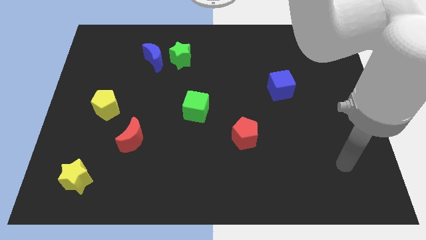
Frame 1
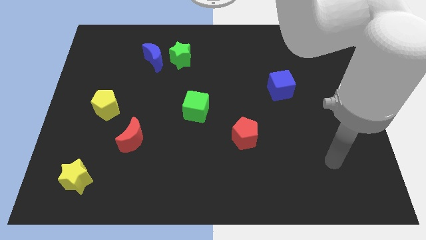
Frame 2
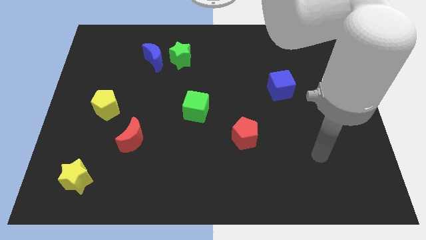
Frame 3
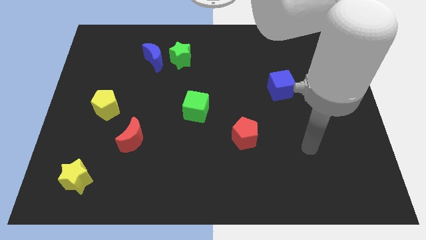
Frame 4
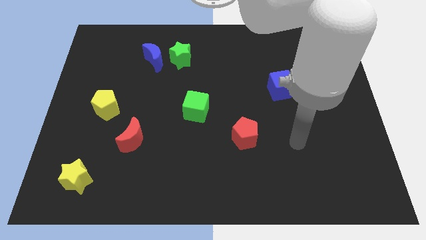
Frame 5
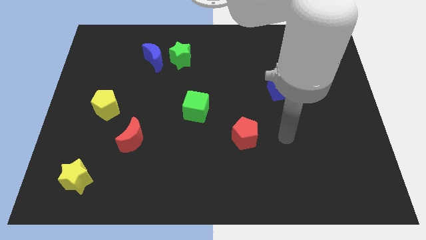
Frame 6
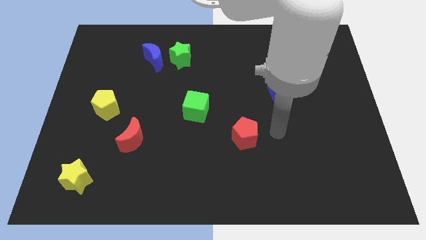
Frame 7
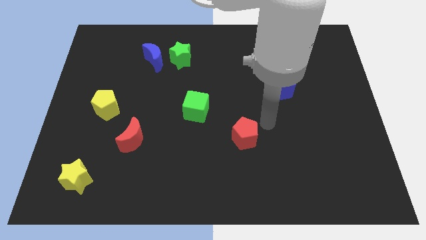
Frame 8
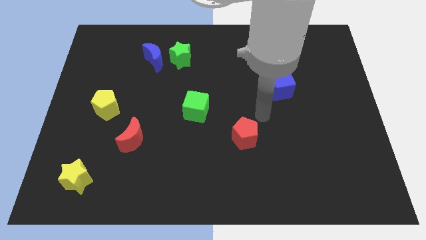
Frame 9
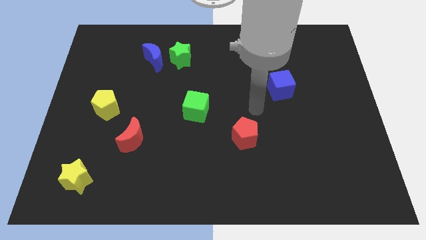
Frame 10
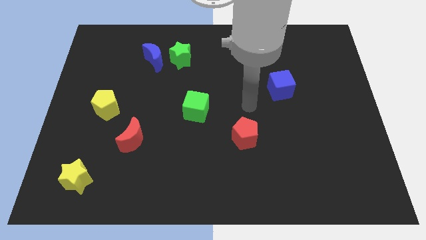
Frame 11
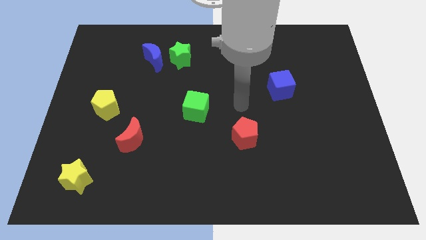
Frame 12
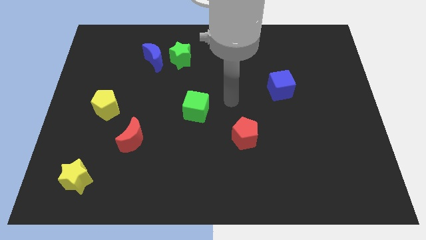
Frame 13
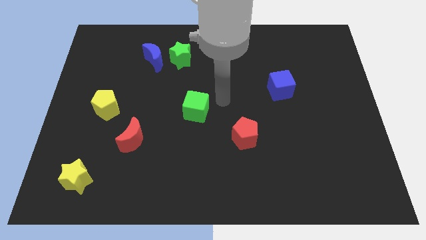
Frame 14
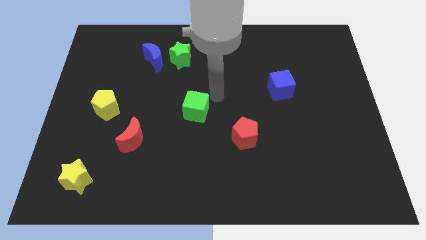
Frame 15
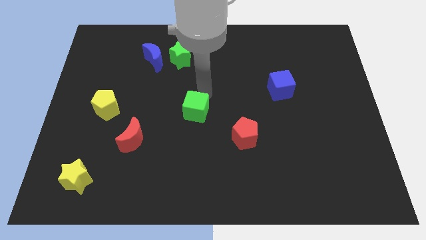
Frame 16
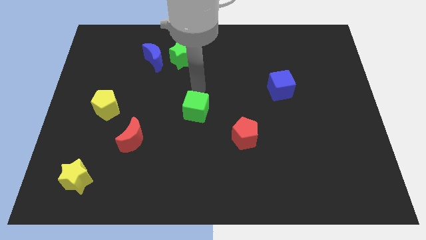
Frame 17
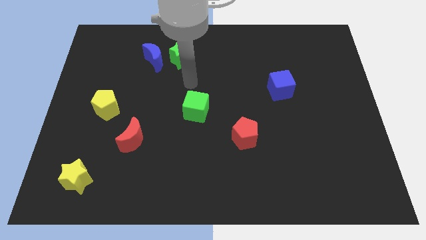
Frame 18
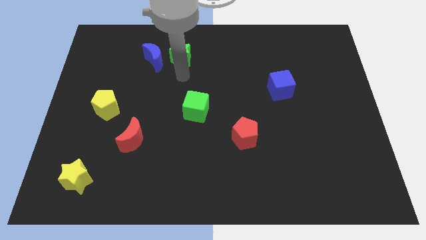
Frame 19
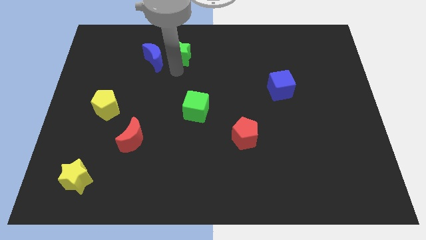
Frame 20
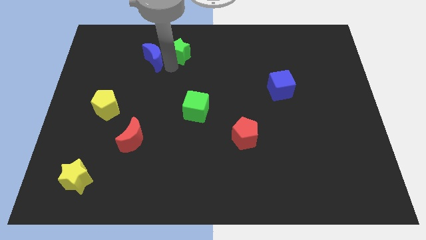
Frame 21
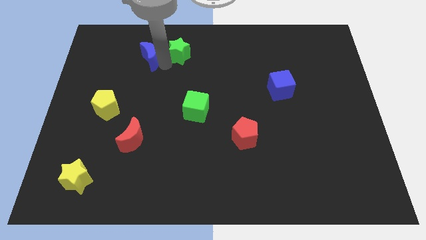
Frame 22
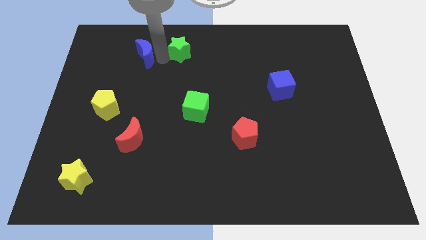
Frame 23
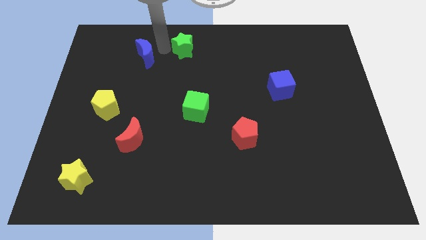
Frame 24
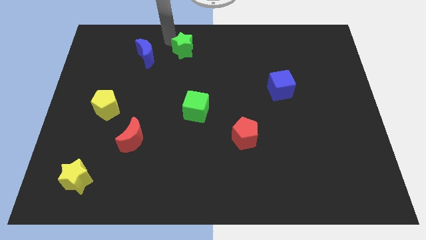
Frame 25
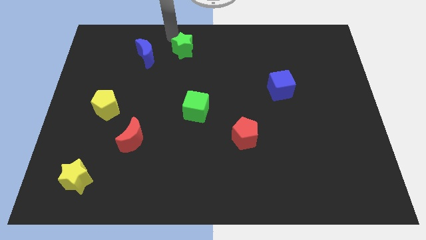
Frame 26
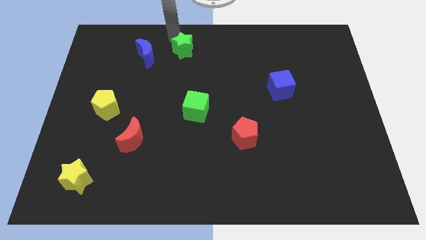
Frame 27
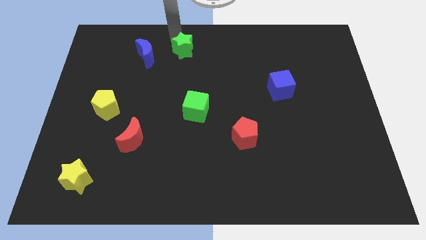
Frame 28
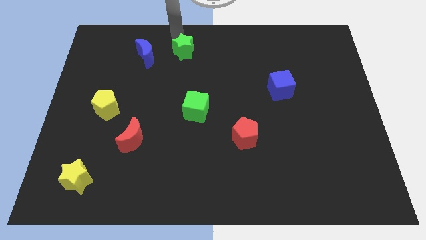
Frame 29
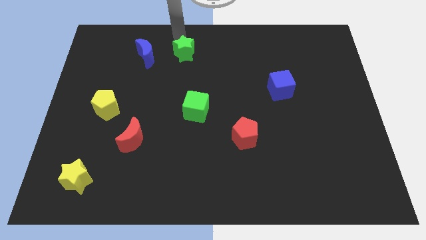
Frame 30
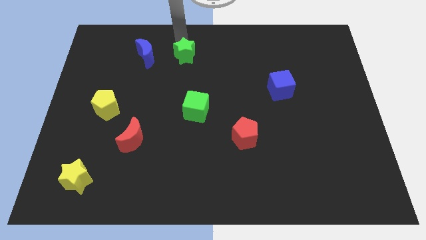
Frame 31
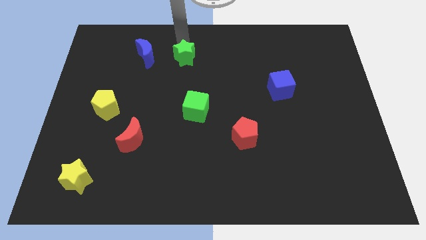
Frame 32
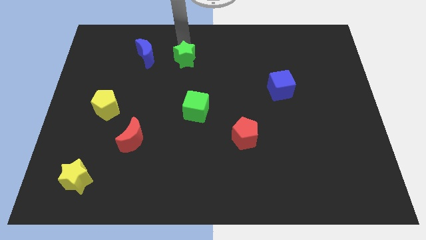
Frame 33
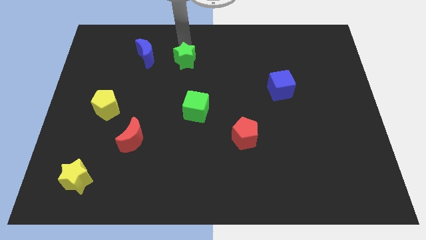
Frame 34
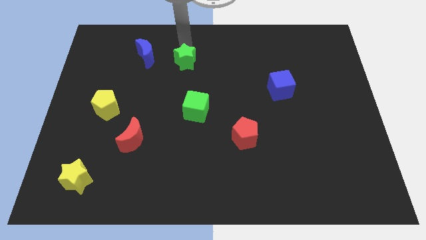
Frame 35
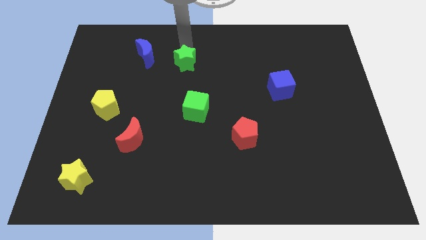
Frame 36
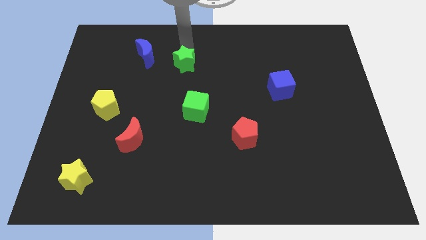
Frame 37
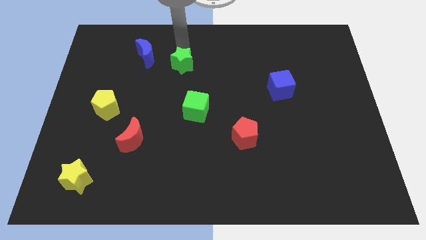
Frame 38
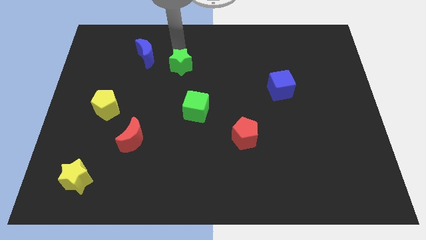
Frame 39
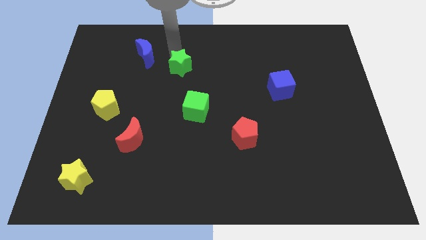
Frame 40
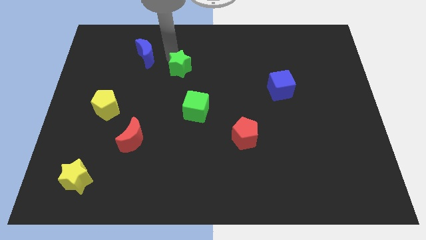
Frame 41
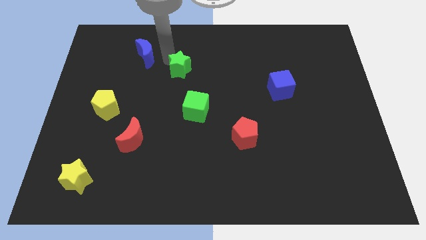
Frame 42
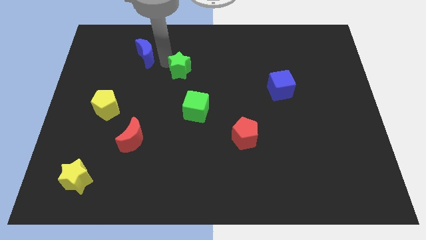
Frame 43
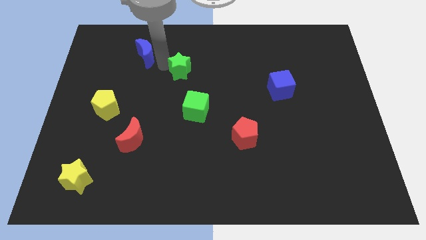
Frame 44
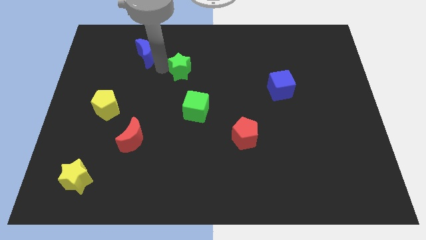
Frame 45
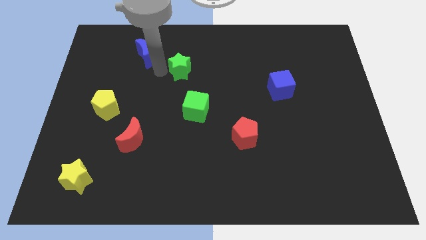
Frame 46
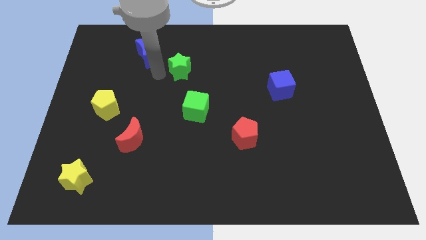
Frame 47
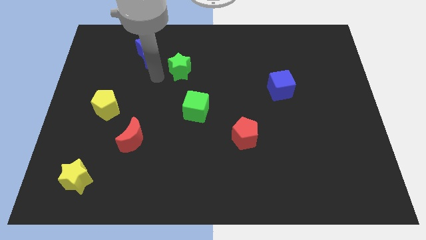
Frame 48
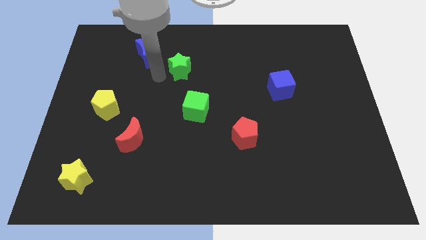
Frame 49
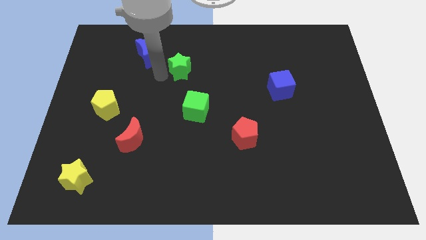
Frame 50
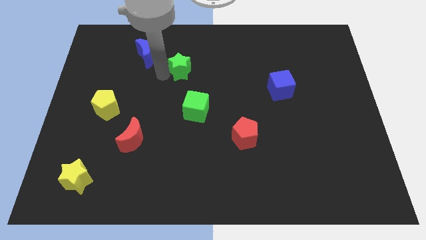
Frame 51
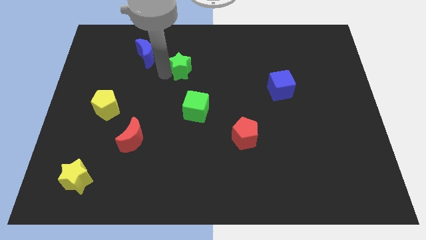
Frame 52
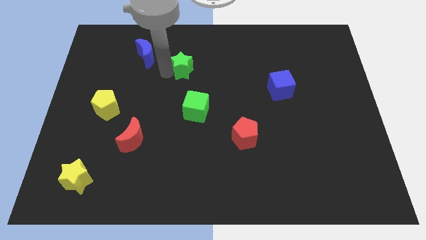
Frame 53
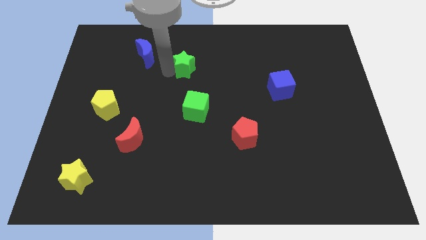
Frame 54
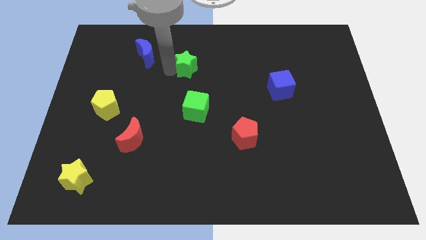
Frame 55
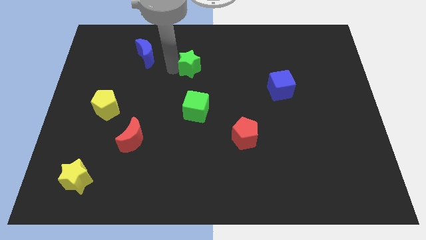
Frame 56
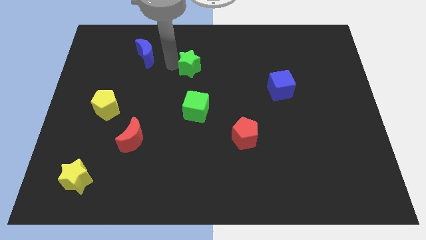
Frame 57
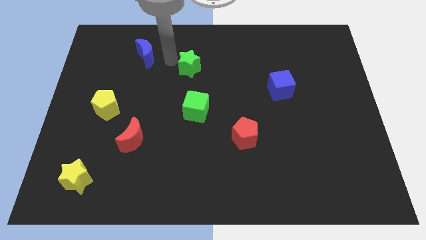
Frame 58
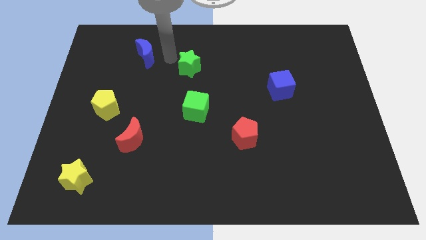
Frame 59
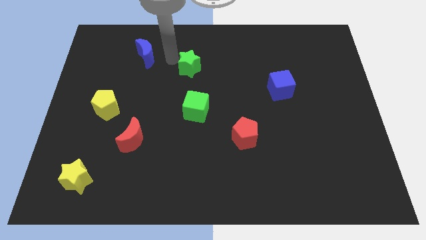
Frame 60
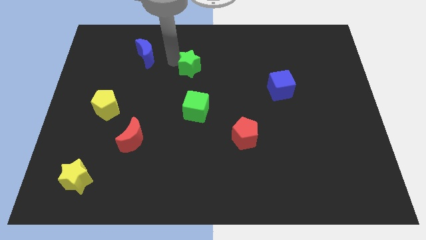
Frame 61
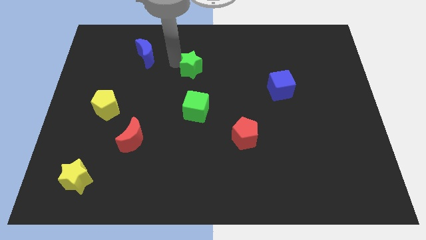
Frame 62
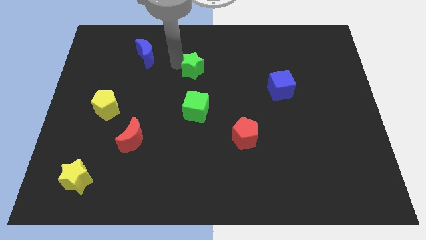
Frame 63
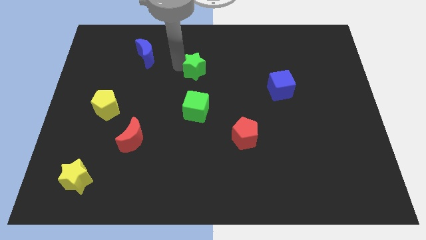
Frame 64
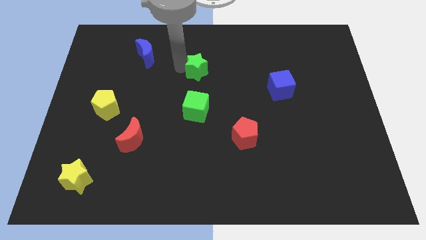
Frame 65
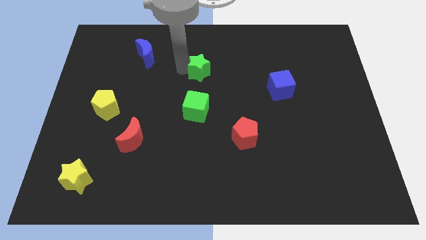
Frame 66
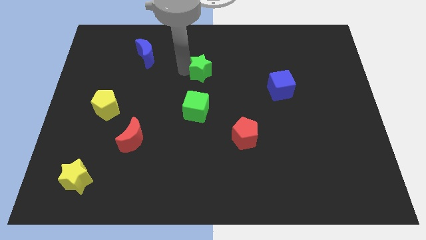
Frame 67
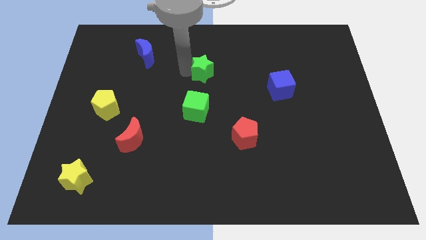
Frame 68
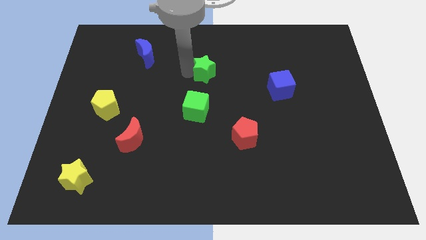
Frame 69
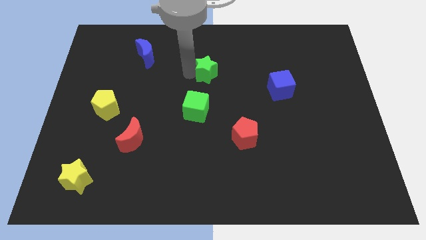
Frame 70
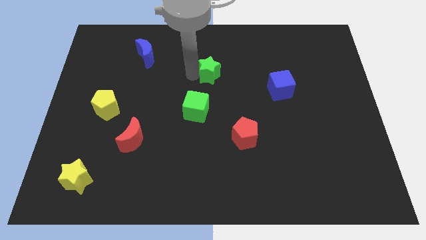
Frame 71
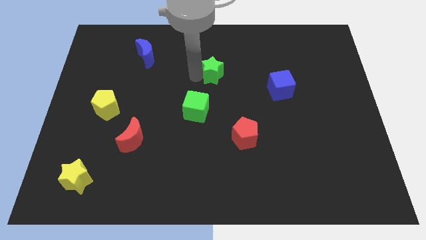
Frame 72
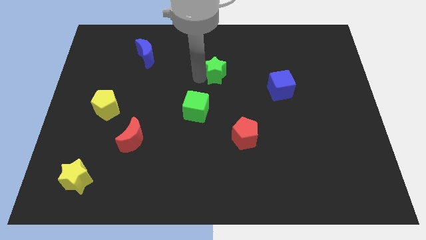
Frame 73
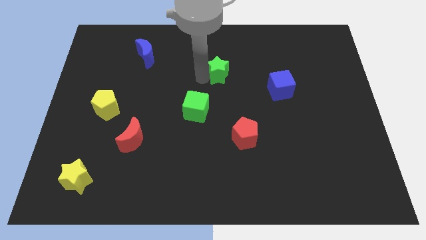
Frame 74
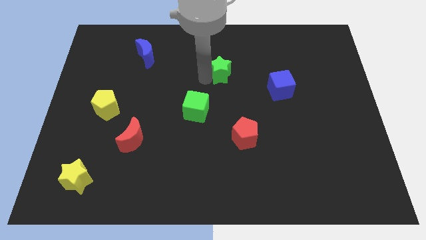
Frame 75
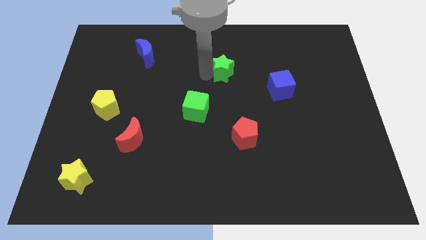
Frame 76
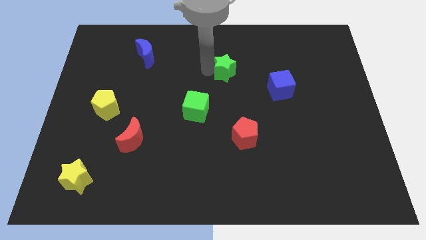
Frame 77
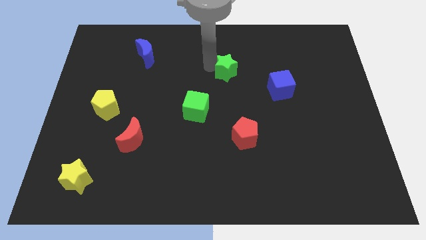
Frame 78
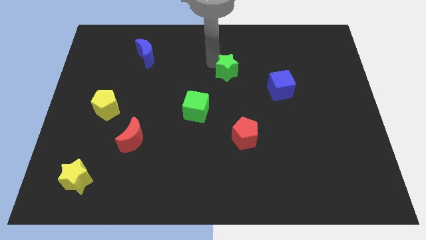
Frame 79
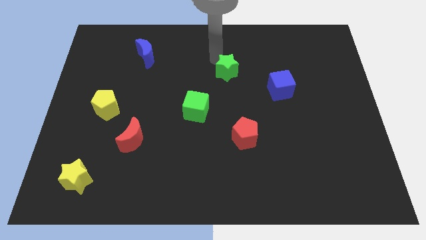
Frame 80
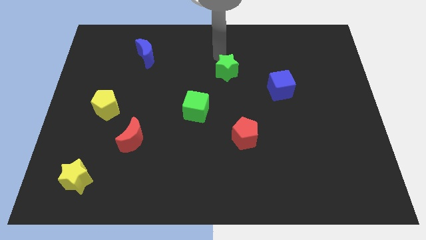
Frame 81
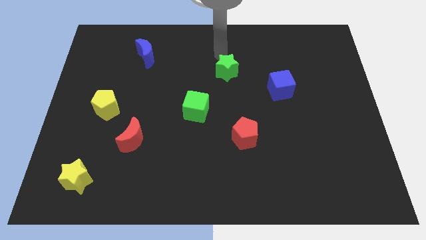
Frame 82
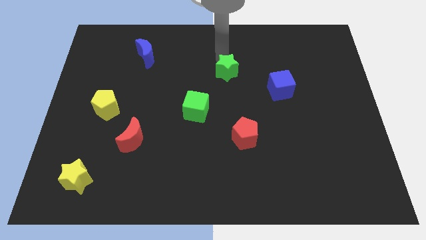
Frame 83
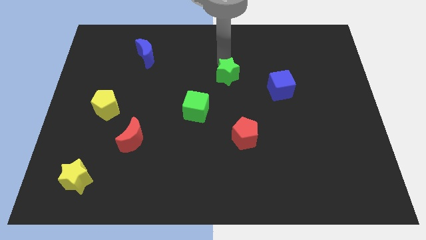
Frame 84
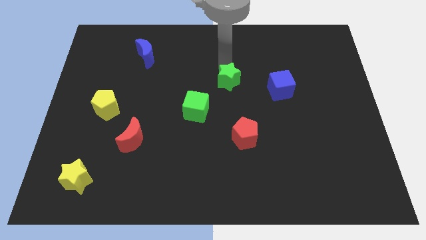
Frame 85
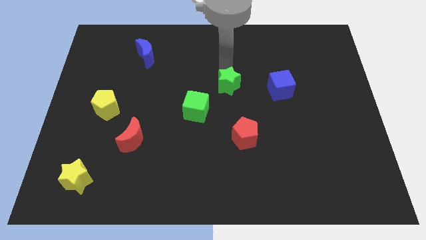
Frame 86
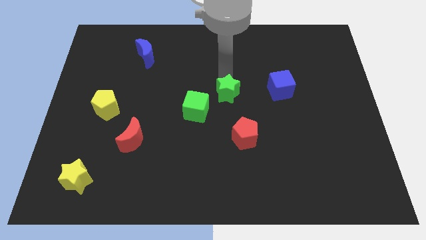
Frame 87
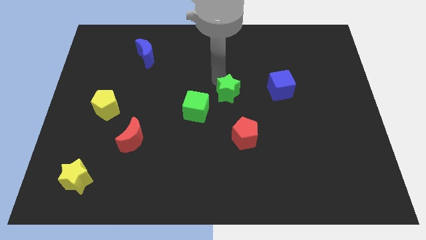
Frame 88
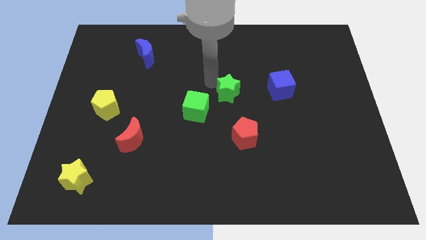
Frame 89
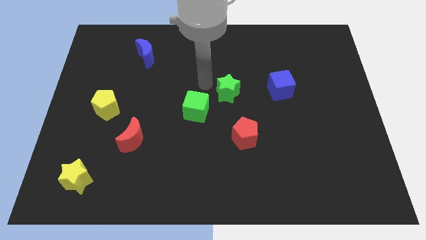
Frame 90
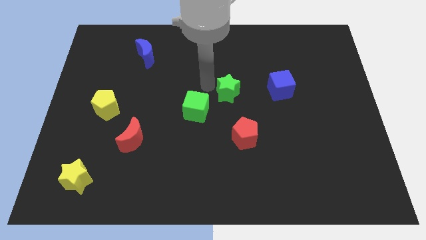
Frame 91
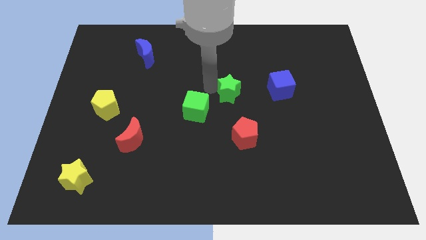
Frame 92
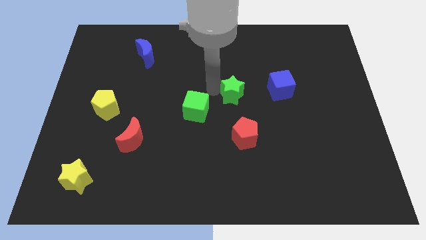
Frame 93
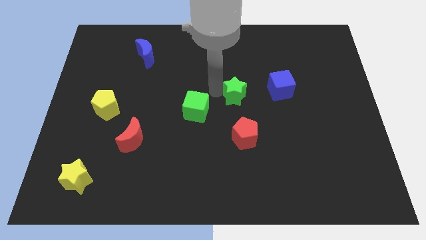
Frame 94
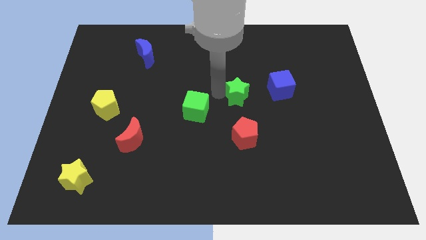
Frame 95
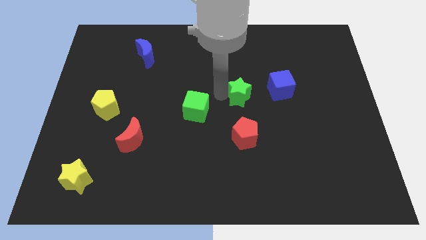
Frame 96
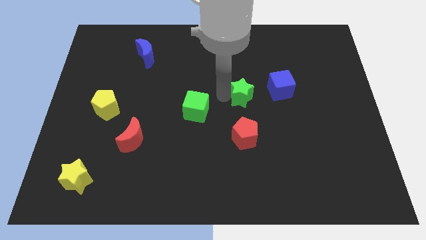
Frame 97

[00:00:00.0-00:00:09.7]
put the green star to the bottom left side of the blue cube
